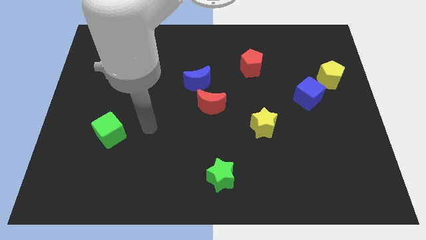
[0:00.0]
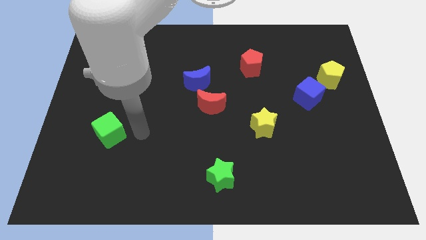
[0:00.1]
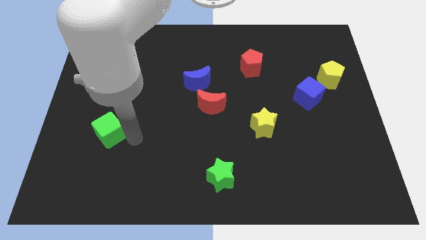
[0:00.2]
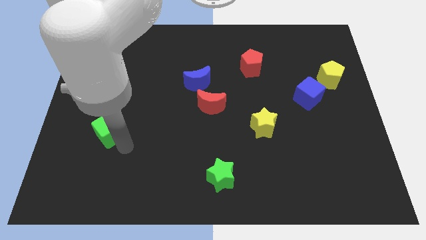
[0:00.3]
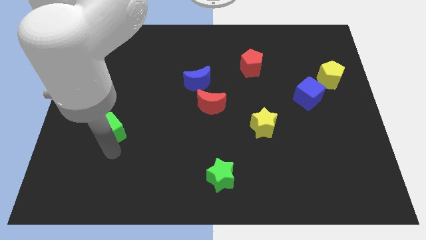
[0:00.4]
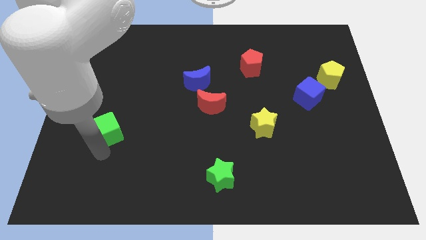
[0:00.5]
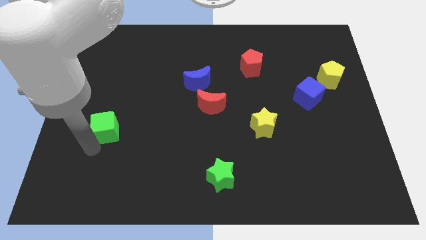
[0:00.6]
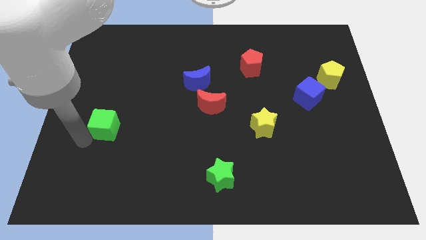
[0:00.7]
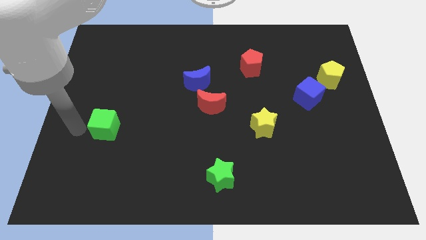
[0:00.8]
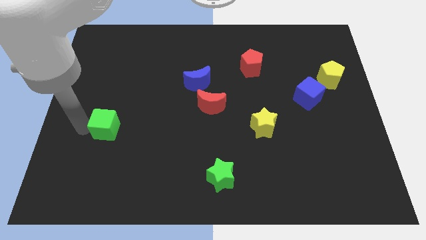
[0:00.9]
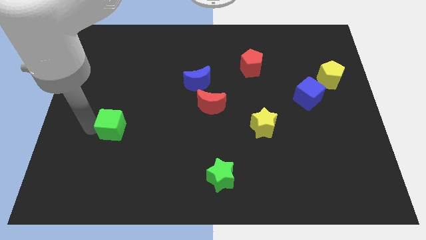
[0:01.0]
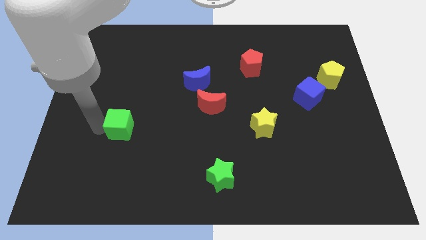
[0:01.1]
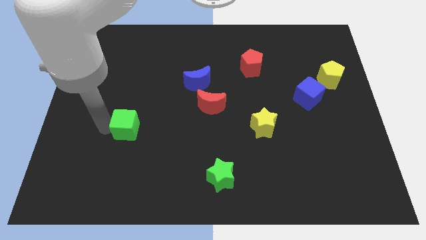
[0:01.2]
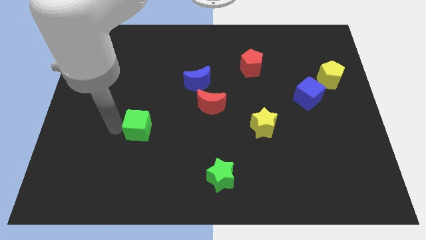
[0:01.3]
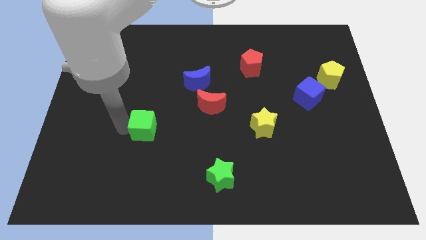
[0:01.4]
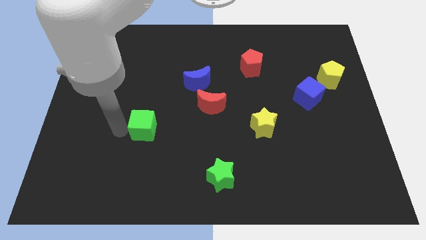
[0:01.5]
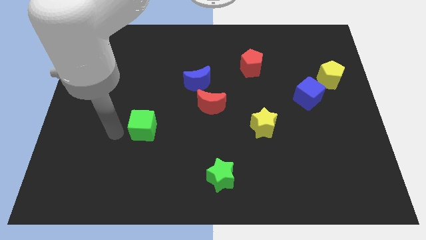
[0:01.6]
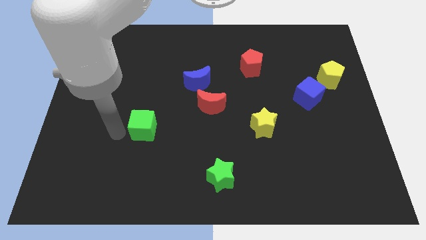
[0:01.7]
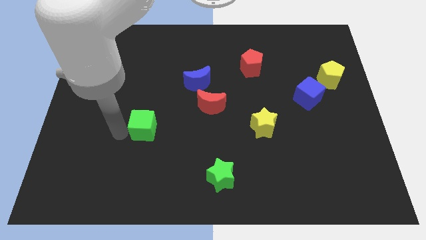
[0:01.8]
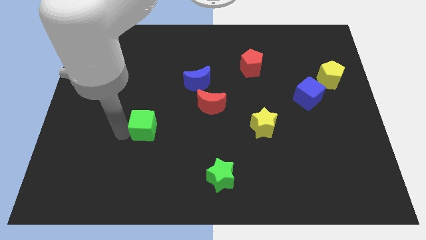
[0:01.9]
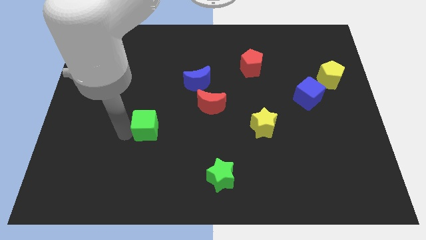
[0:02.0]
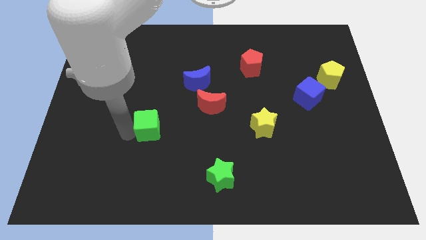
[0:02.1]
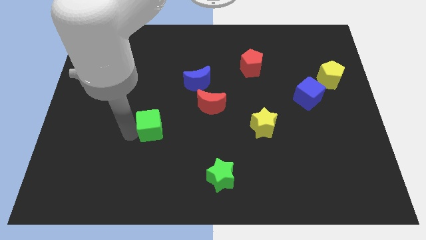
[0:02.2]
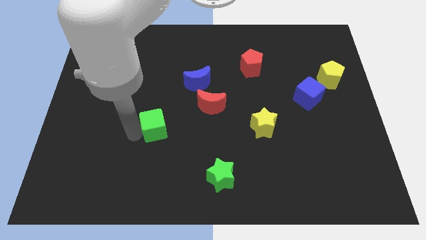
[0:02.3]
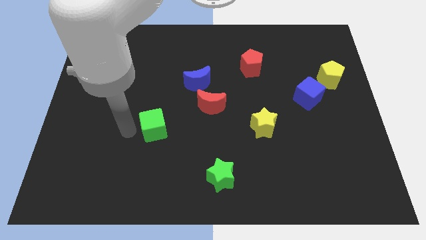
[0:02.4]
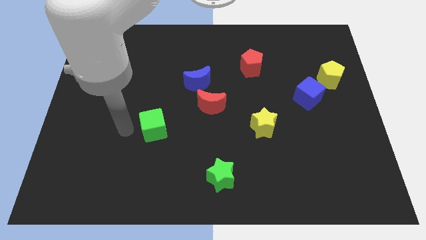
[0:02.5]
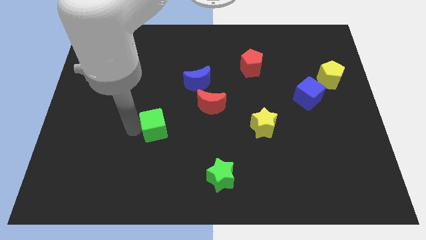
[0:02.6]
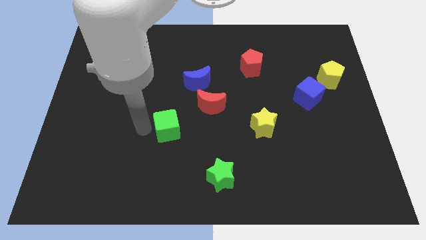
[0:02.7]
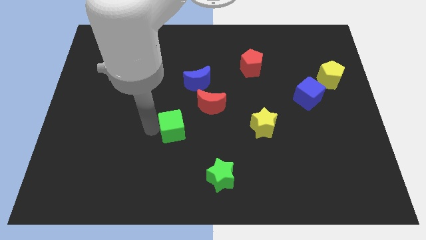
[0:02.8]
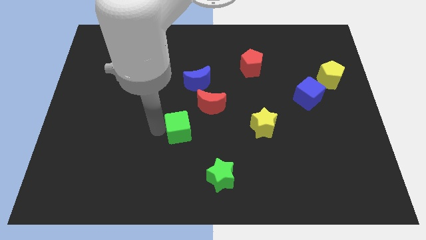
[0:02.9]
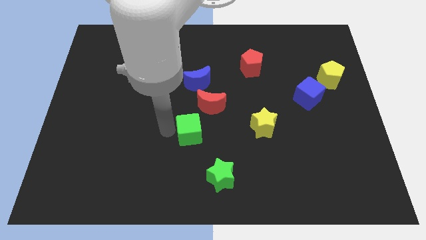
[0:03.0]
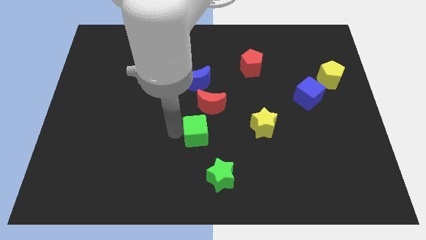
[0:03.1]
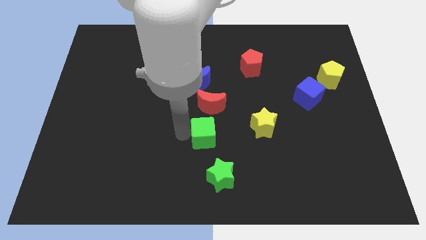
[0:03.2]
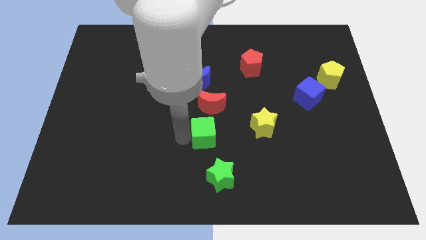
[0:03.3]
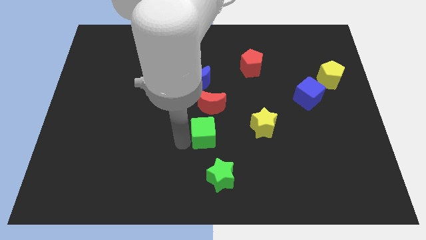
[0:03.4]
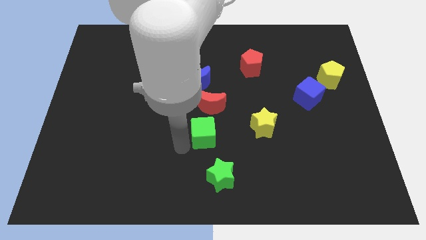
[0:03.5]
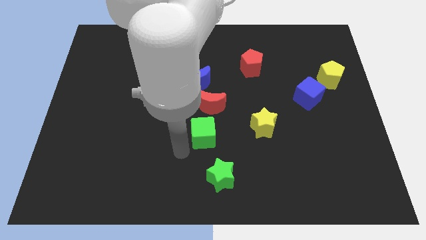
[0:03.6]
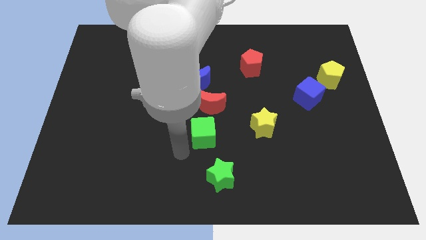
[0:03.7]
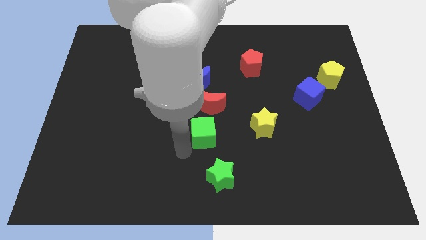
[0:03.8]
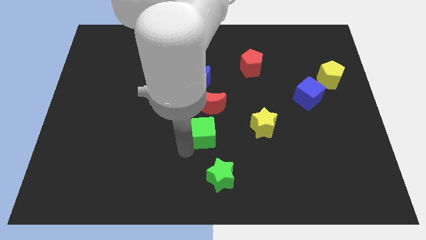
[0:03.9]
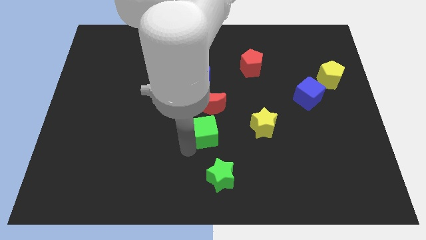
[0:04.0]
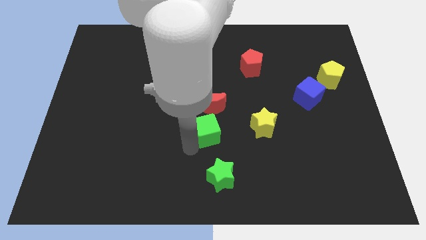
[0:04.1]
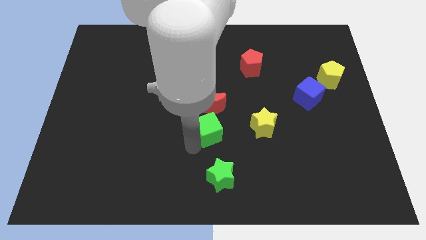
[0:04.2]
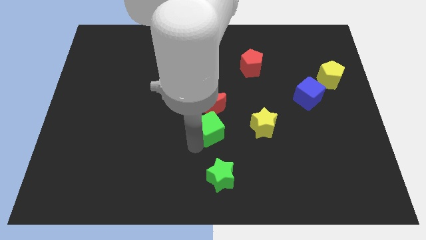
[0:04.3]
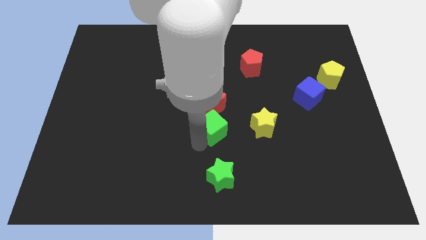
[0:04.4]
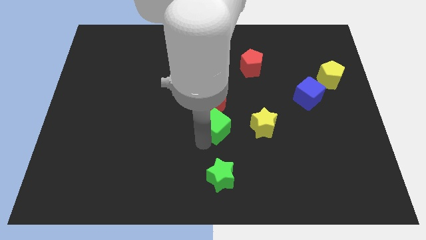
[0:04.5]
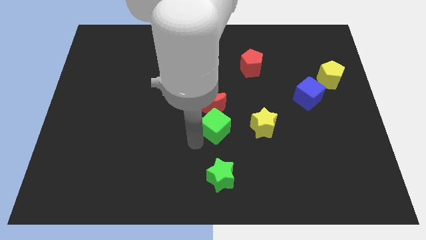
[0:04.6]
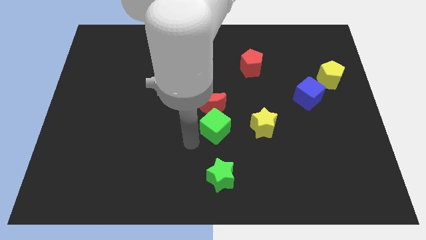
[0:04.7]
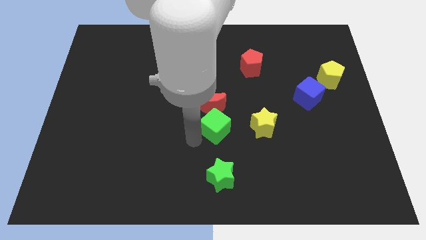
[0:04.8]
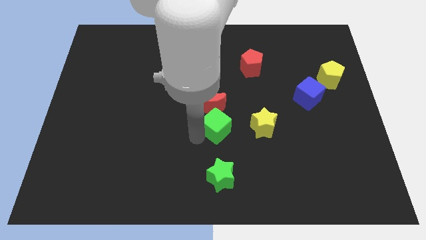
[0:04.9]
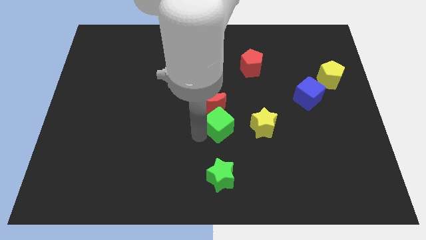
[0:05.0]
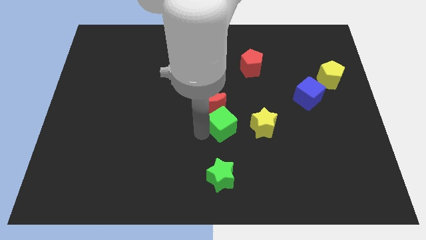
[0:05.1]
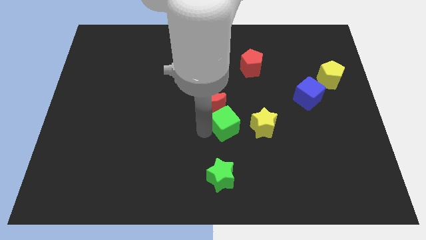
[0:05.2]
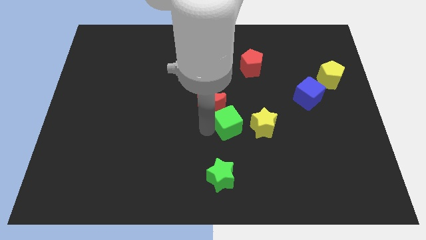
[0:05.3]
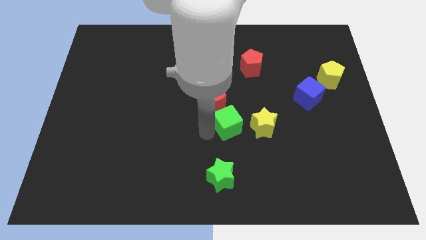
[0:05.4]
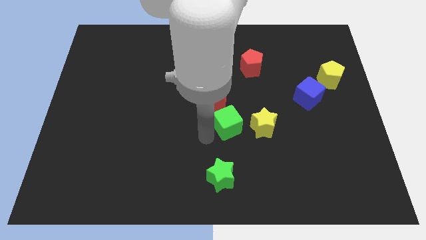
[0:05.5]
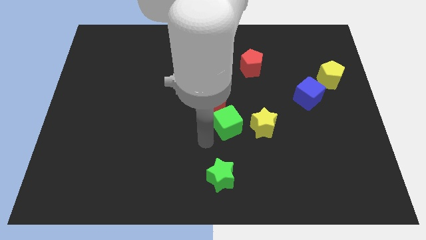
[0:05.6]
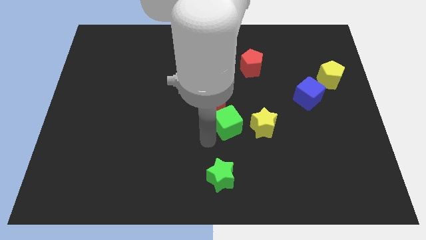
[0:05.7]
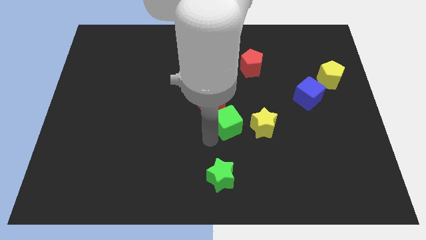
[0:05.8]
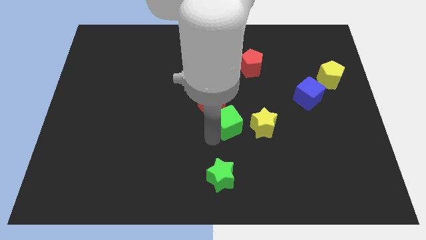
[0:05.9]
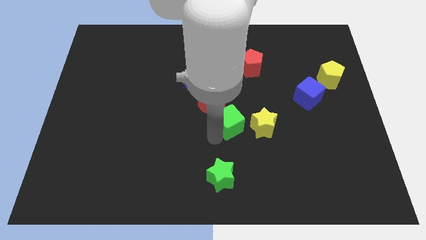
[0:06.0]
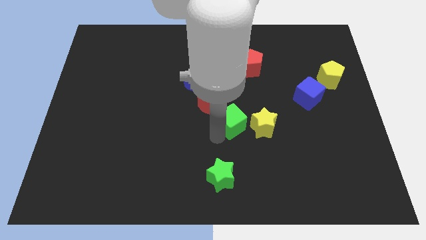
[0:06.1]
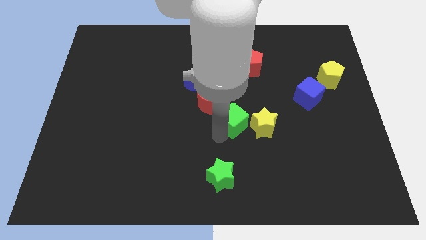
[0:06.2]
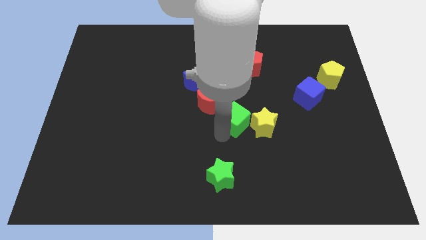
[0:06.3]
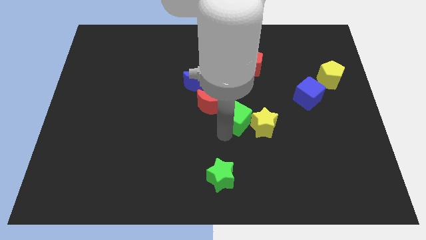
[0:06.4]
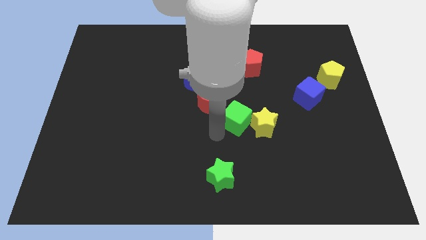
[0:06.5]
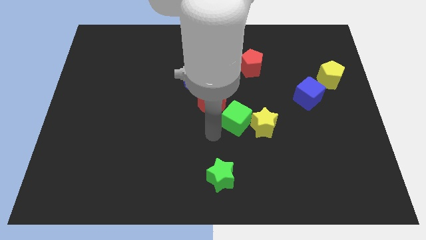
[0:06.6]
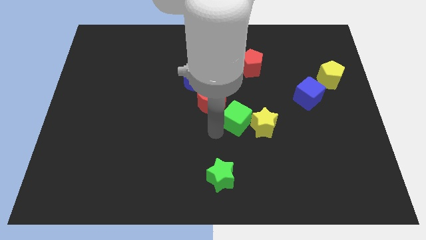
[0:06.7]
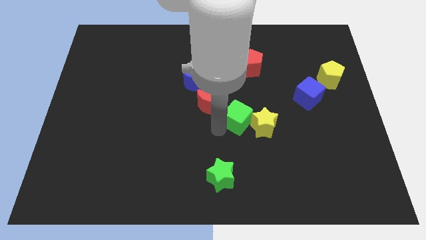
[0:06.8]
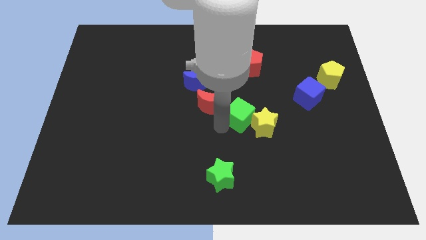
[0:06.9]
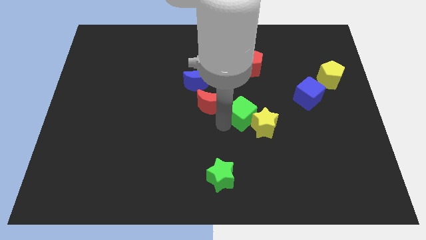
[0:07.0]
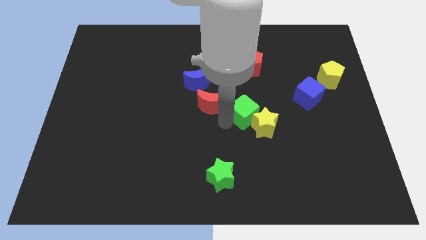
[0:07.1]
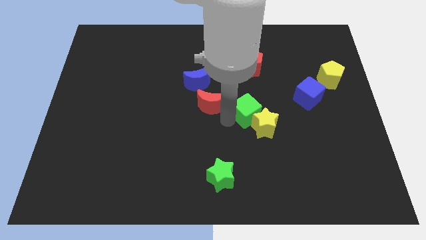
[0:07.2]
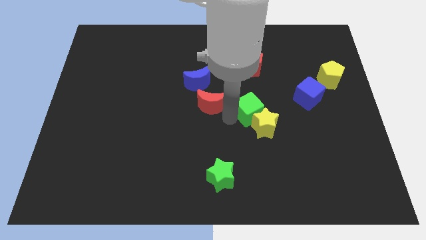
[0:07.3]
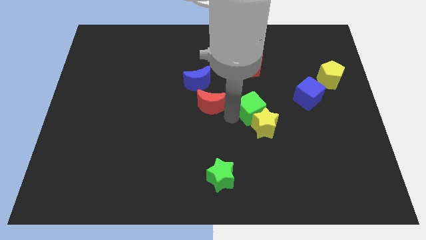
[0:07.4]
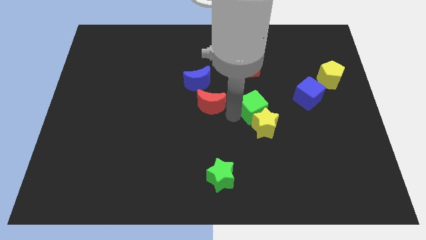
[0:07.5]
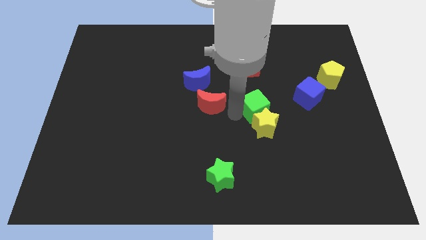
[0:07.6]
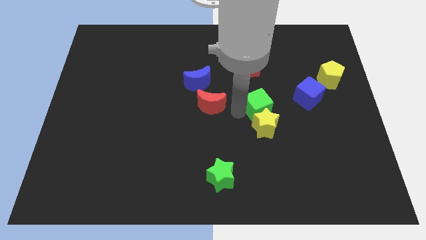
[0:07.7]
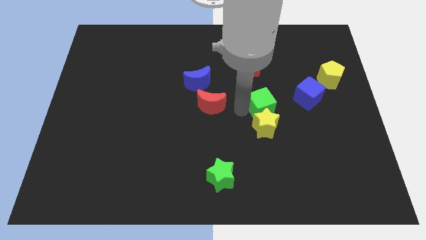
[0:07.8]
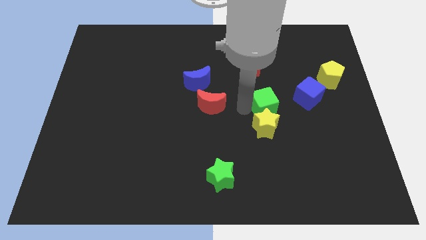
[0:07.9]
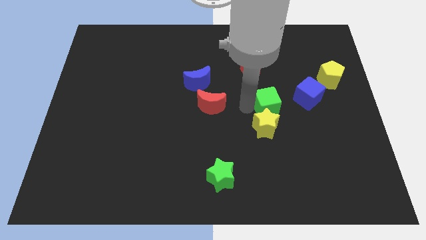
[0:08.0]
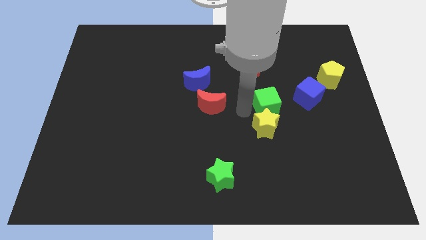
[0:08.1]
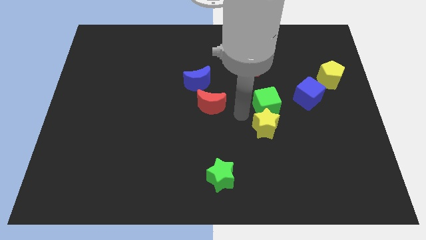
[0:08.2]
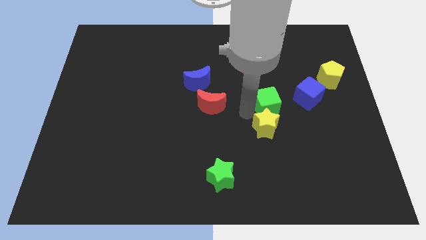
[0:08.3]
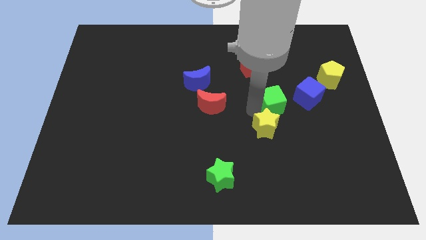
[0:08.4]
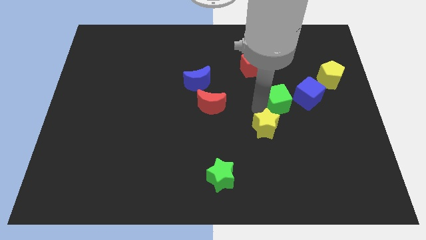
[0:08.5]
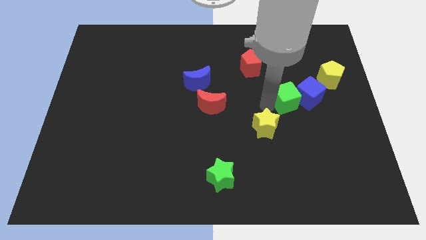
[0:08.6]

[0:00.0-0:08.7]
move the green cube close to the blue cube

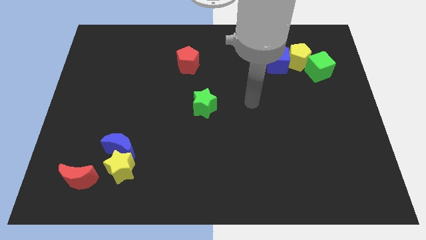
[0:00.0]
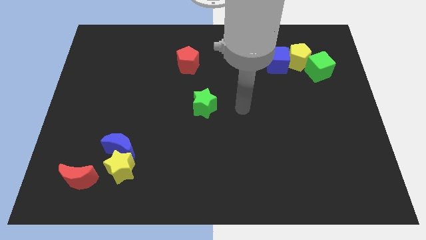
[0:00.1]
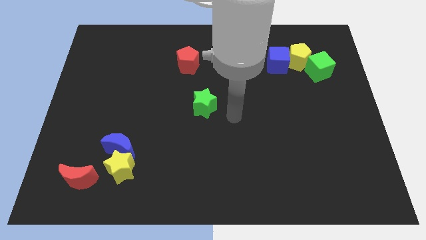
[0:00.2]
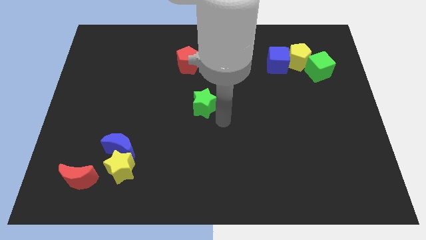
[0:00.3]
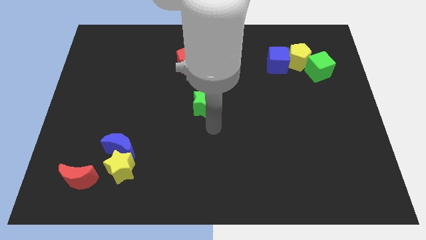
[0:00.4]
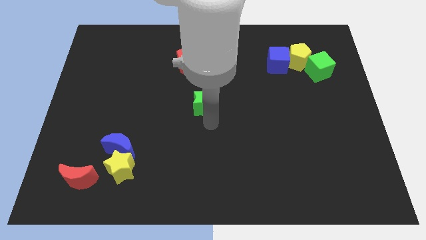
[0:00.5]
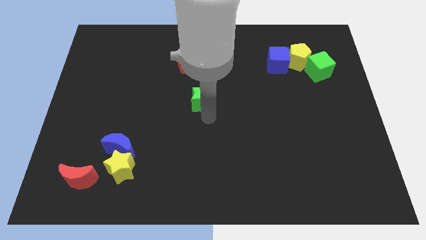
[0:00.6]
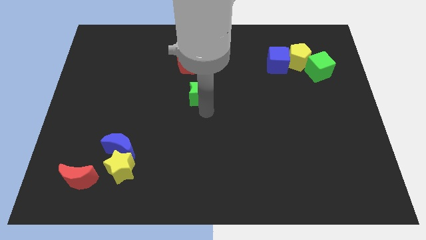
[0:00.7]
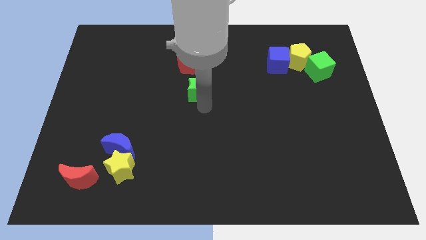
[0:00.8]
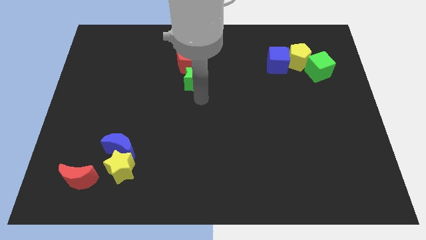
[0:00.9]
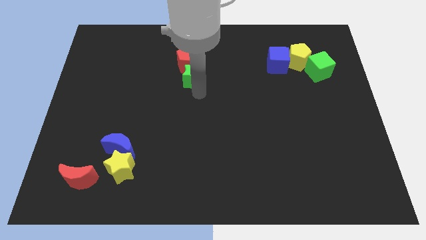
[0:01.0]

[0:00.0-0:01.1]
push the green star towards the red pentagon
